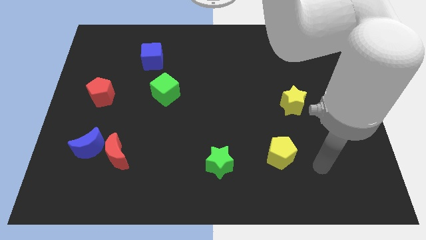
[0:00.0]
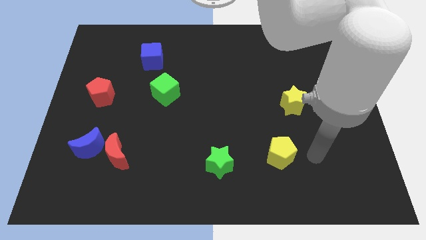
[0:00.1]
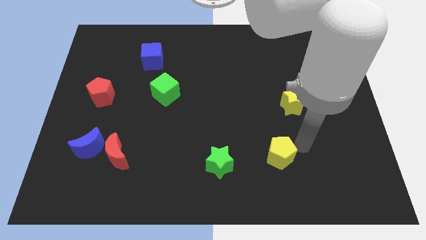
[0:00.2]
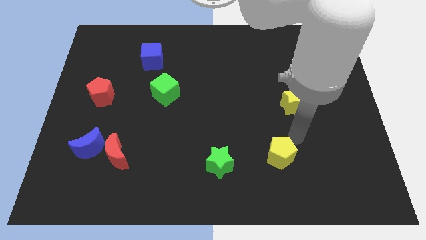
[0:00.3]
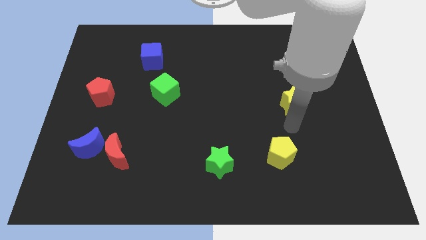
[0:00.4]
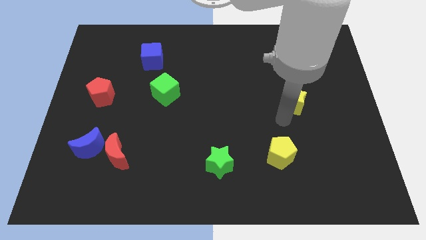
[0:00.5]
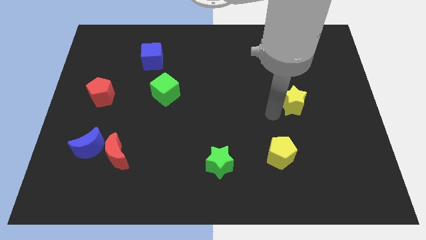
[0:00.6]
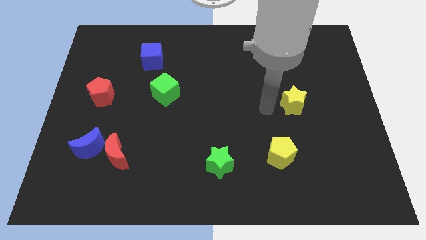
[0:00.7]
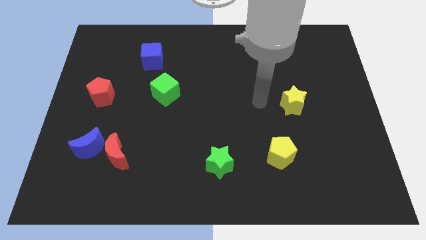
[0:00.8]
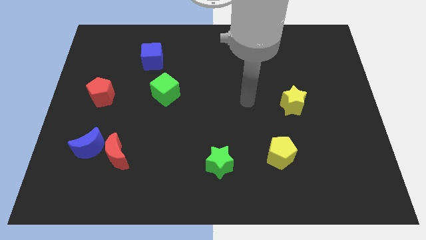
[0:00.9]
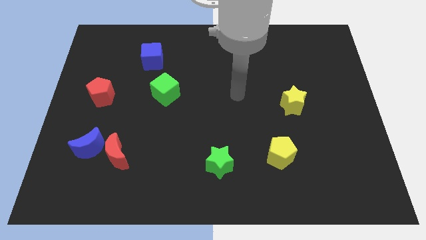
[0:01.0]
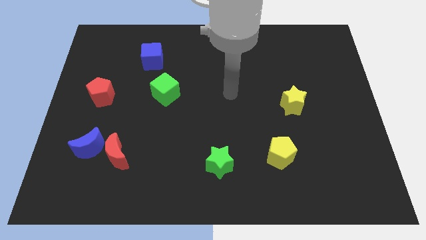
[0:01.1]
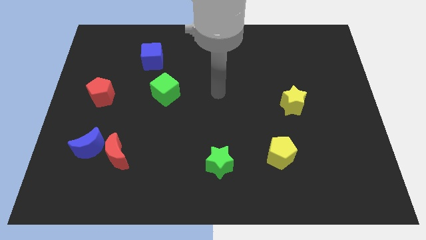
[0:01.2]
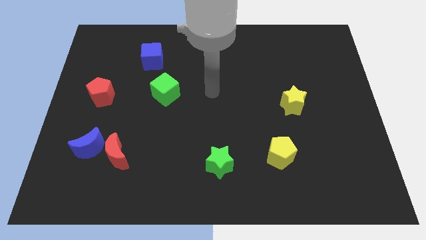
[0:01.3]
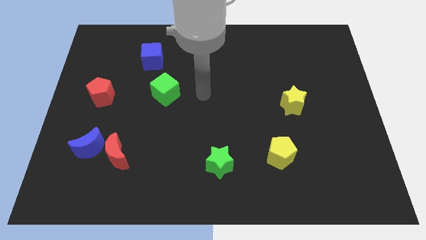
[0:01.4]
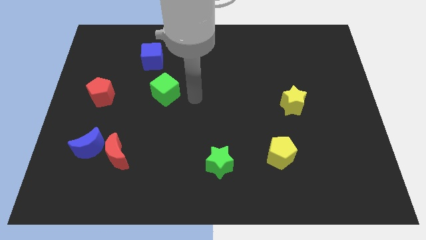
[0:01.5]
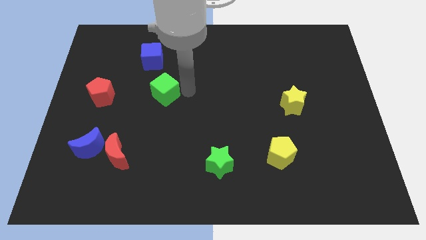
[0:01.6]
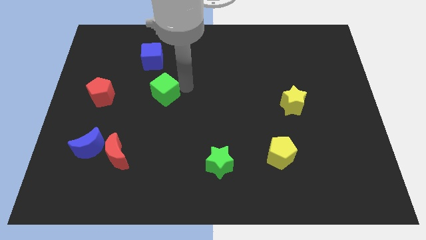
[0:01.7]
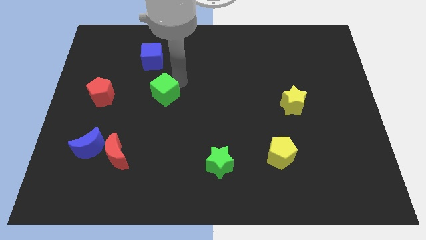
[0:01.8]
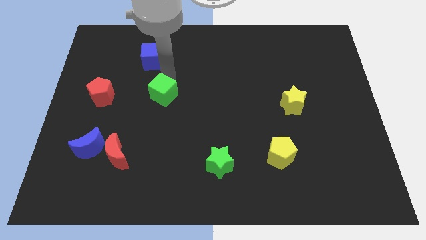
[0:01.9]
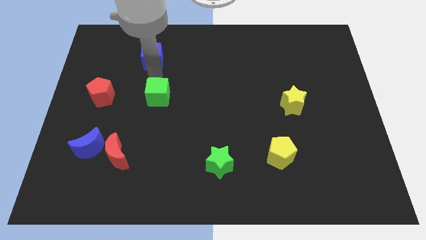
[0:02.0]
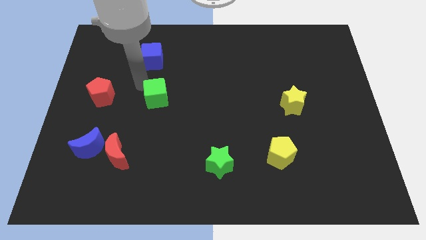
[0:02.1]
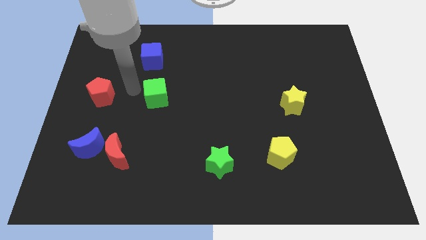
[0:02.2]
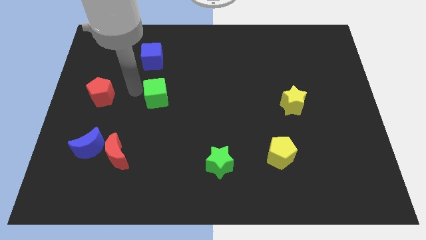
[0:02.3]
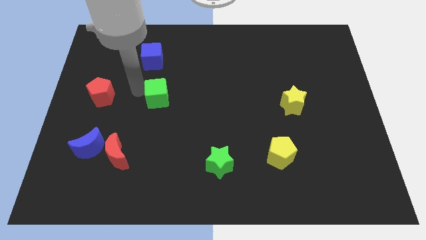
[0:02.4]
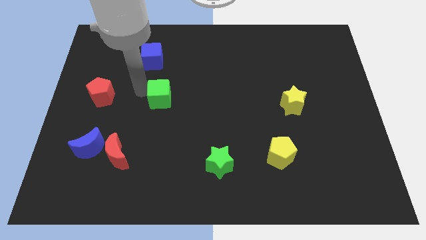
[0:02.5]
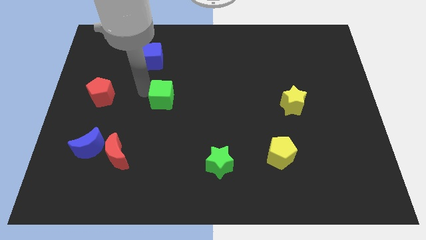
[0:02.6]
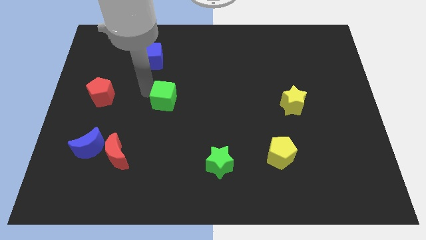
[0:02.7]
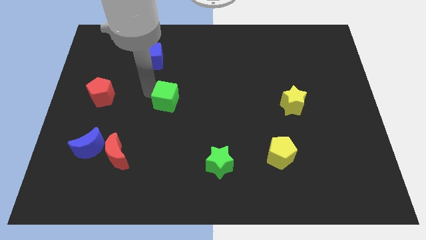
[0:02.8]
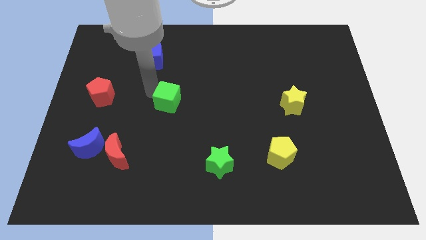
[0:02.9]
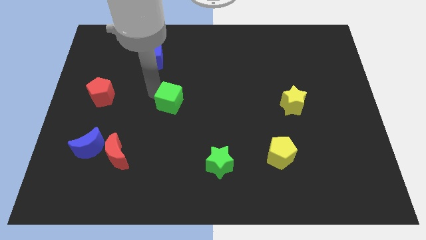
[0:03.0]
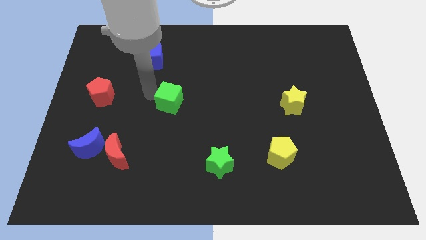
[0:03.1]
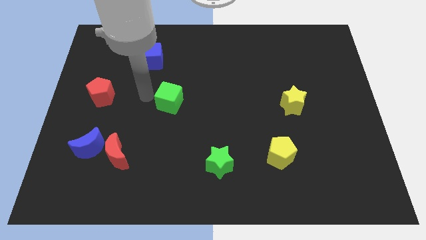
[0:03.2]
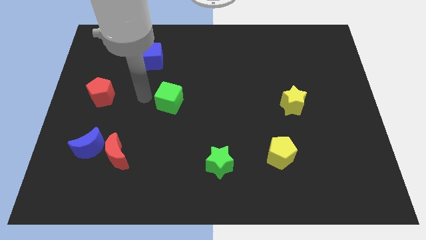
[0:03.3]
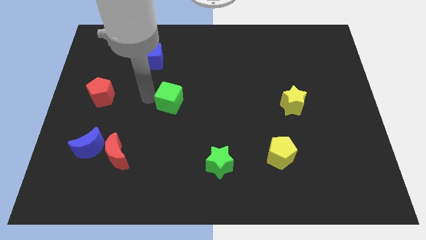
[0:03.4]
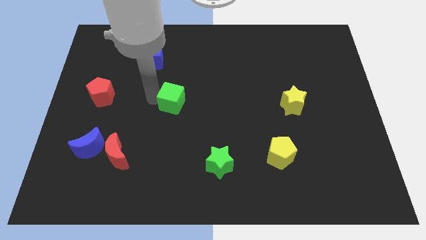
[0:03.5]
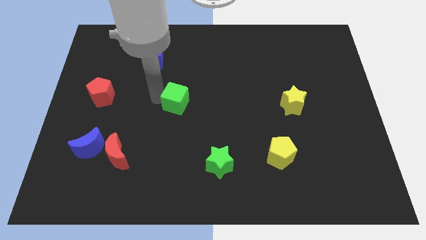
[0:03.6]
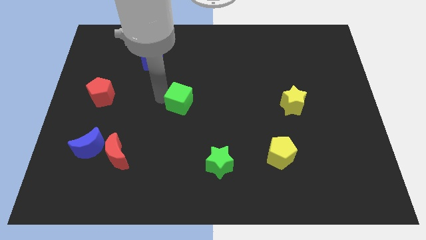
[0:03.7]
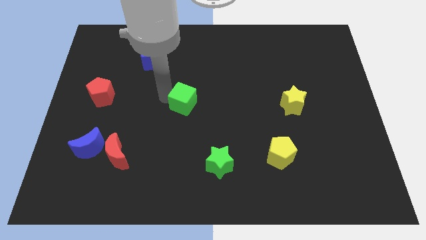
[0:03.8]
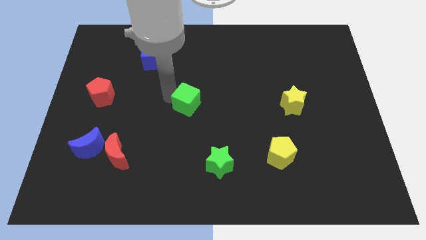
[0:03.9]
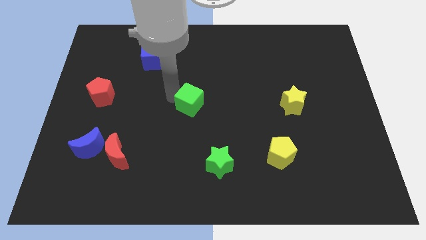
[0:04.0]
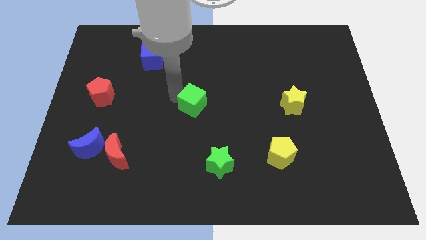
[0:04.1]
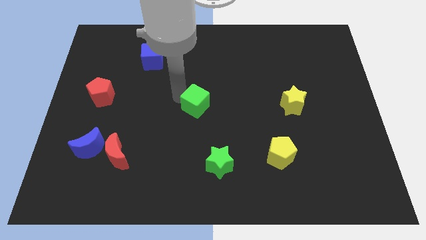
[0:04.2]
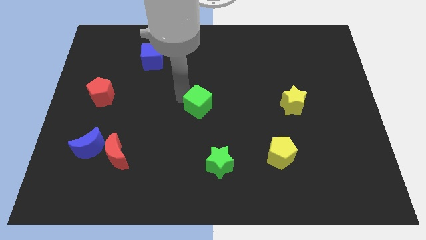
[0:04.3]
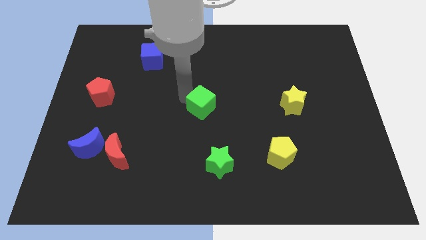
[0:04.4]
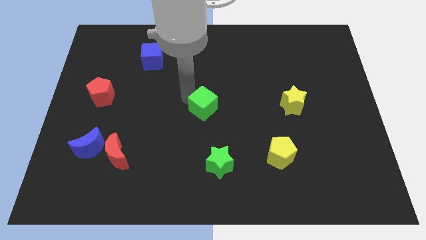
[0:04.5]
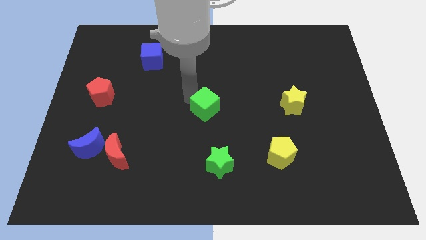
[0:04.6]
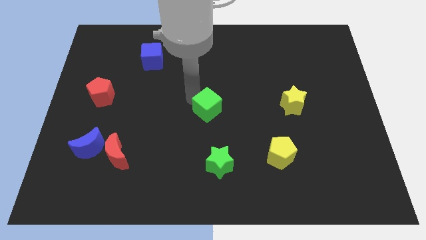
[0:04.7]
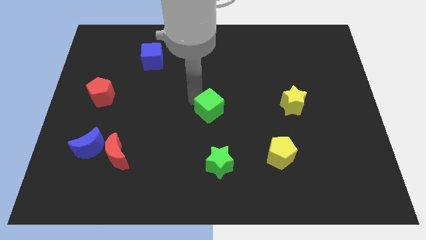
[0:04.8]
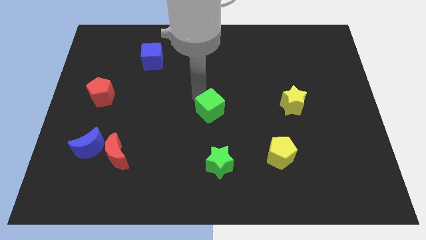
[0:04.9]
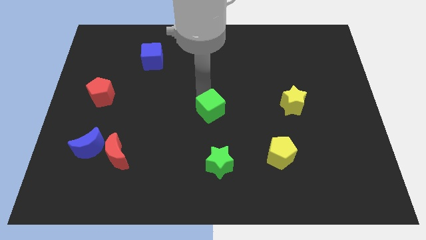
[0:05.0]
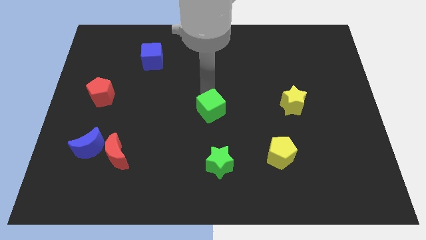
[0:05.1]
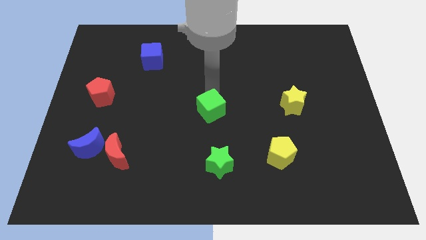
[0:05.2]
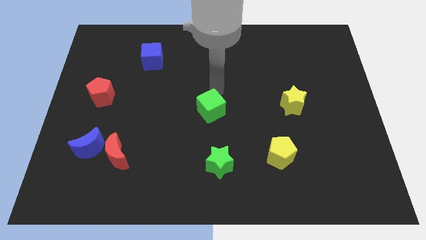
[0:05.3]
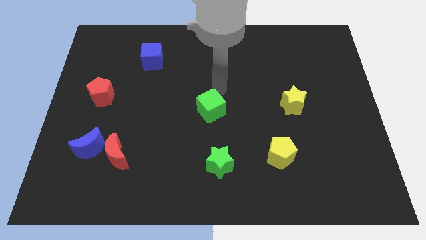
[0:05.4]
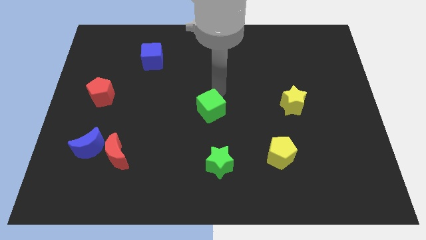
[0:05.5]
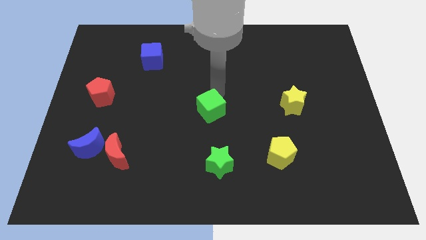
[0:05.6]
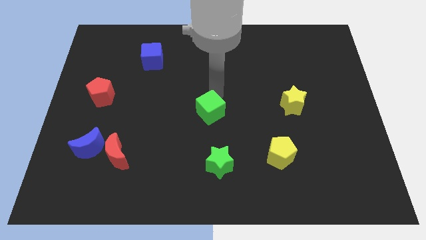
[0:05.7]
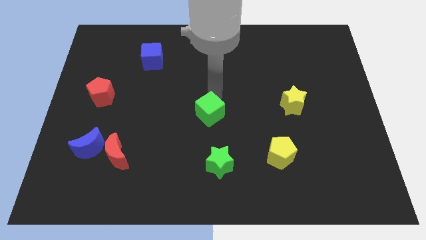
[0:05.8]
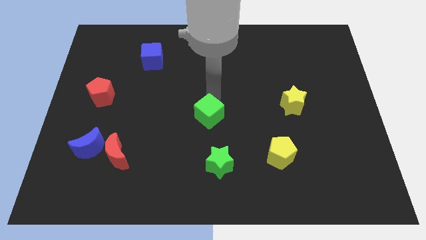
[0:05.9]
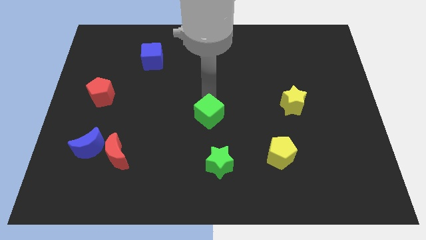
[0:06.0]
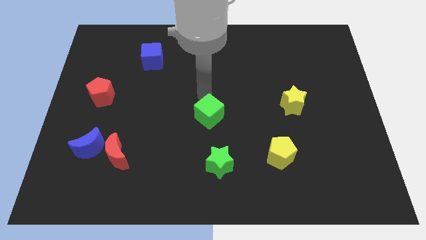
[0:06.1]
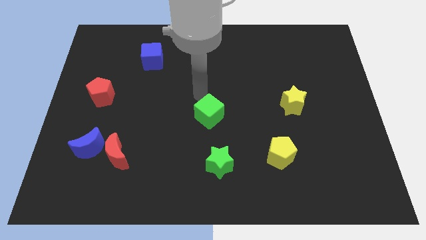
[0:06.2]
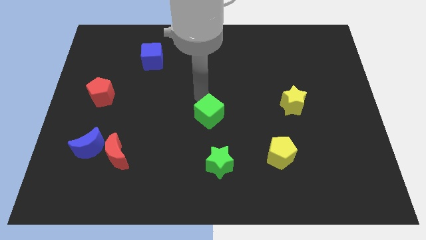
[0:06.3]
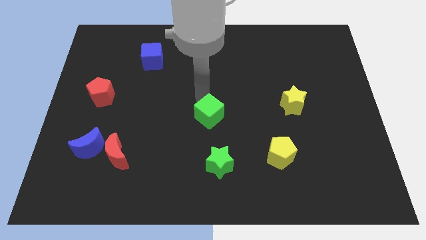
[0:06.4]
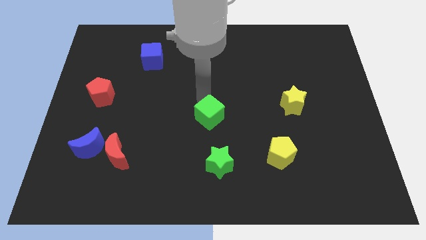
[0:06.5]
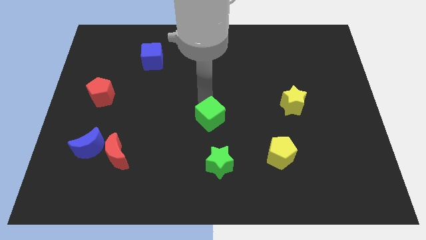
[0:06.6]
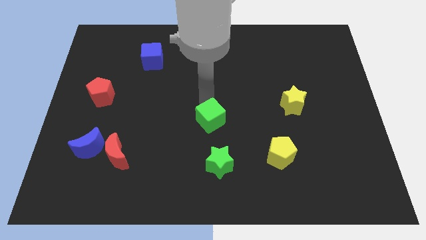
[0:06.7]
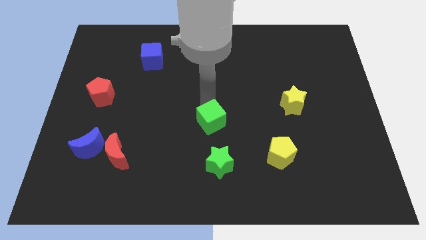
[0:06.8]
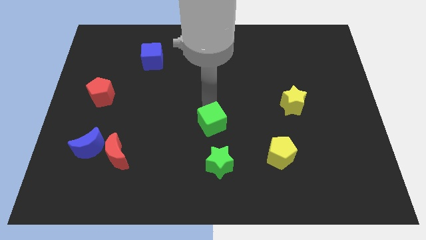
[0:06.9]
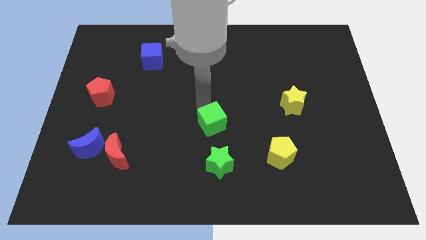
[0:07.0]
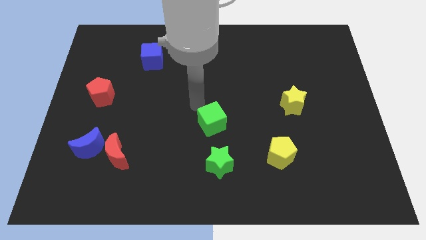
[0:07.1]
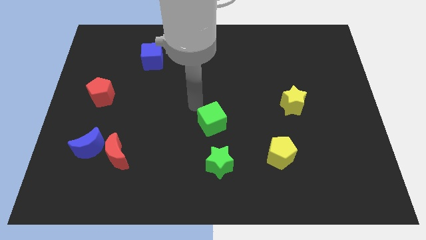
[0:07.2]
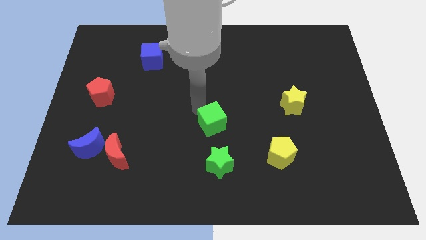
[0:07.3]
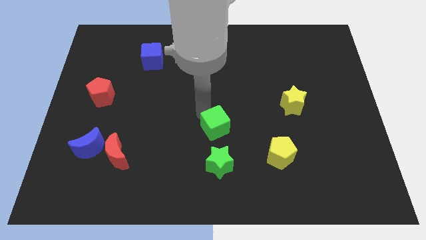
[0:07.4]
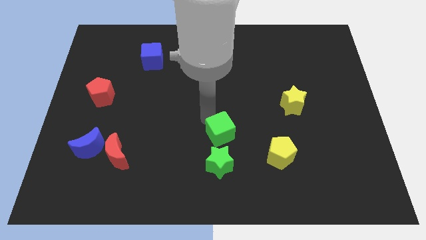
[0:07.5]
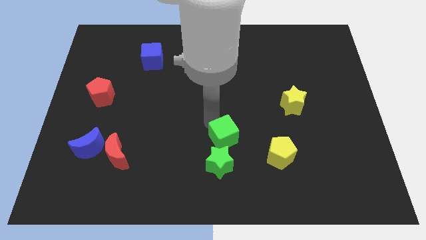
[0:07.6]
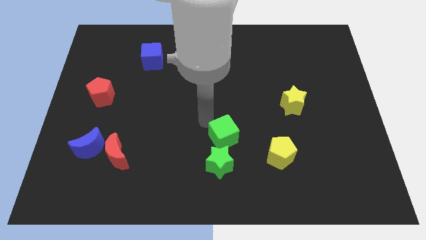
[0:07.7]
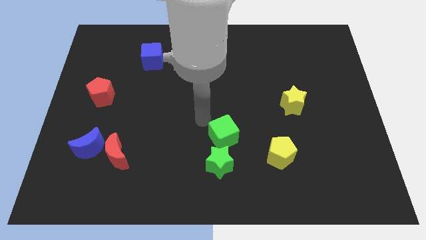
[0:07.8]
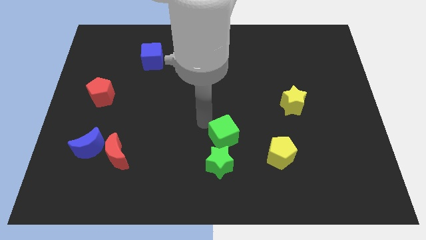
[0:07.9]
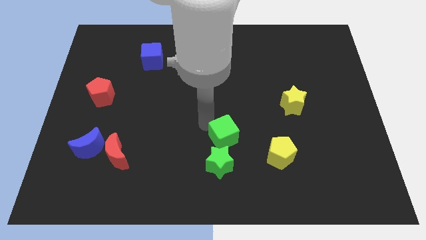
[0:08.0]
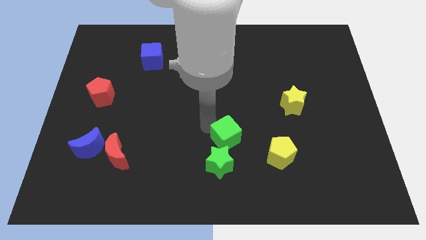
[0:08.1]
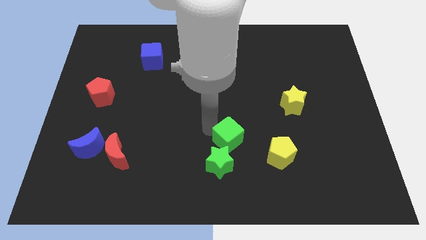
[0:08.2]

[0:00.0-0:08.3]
move the green cube downwards and to the right
